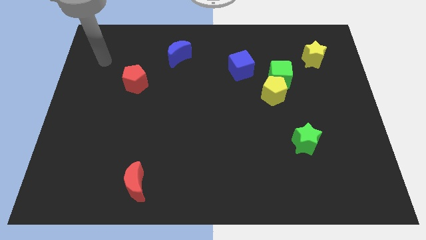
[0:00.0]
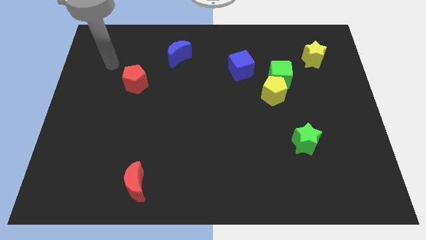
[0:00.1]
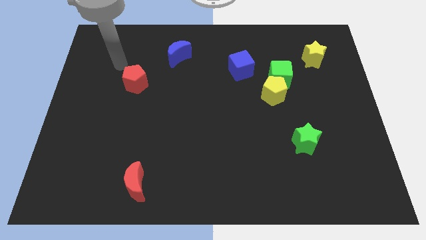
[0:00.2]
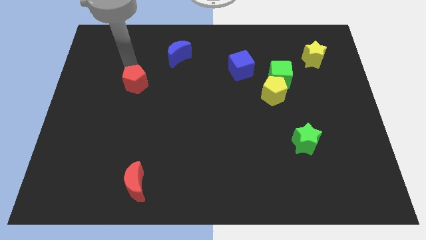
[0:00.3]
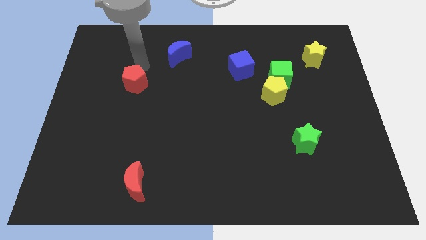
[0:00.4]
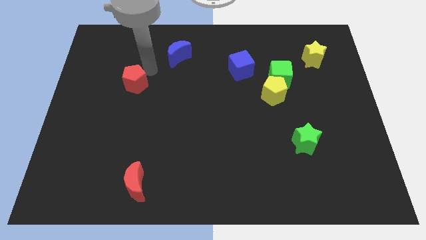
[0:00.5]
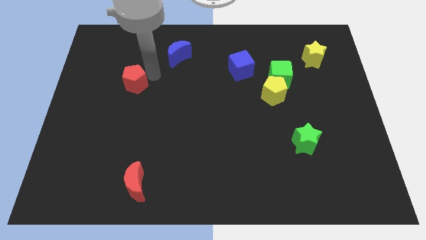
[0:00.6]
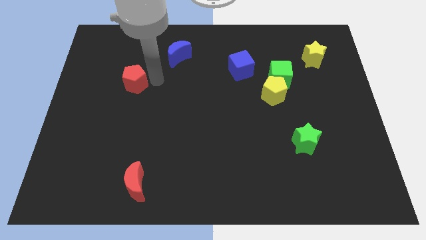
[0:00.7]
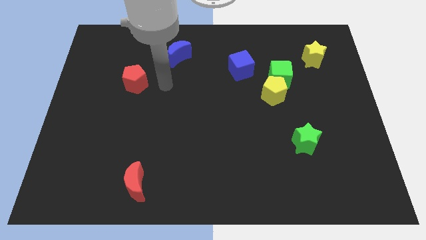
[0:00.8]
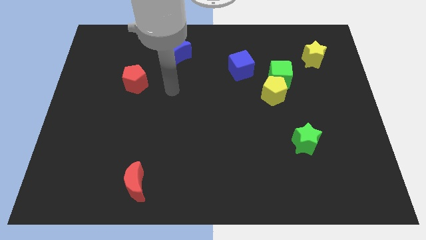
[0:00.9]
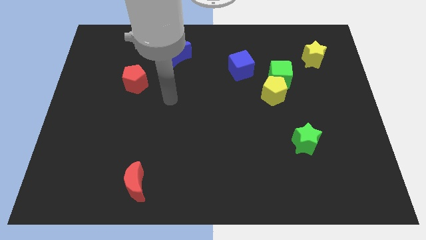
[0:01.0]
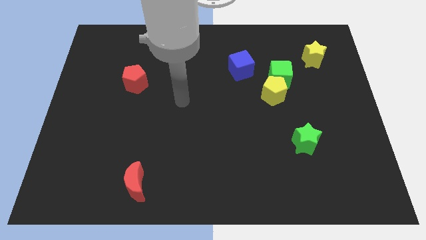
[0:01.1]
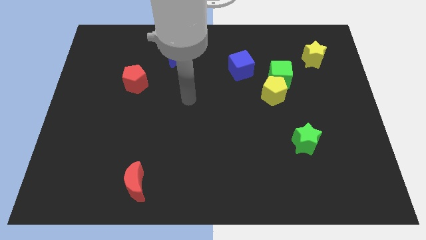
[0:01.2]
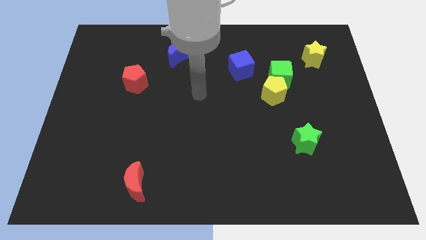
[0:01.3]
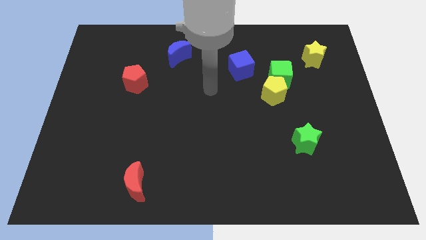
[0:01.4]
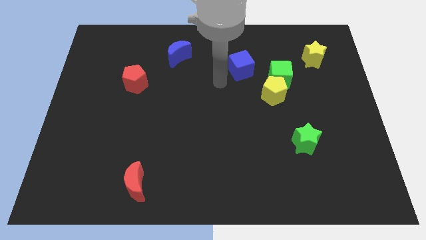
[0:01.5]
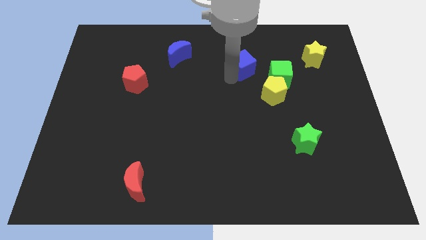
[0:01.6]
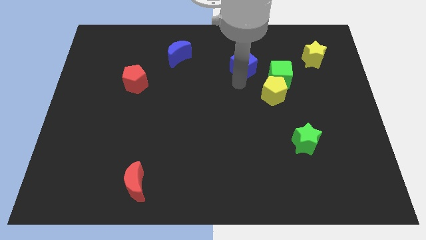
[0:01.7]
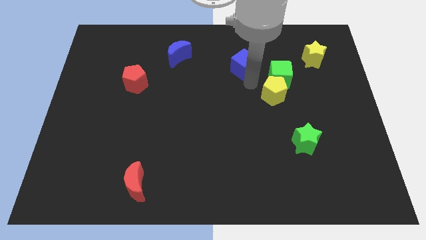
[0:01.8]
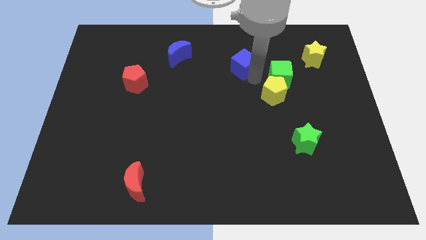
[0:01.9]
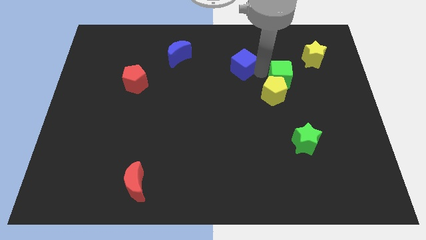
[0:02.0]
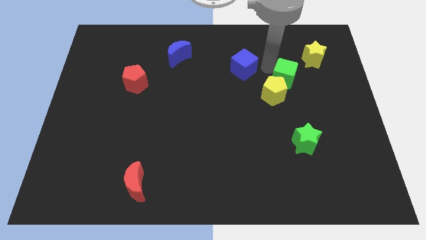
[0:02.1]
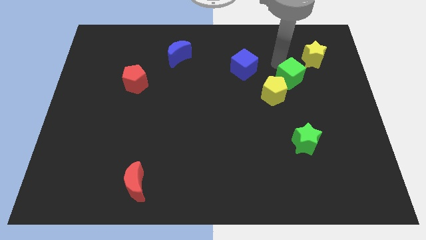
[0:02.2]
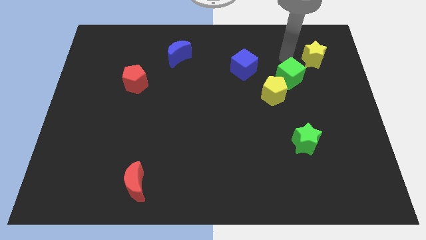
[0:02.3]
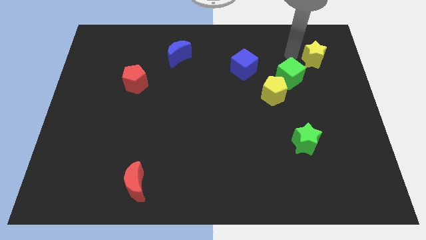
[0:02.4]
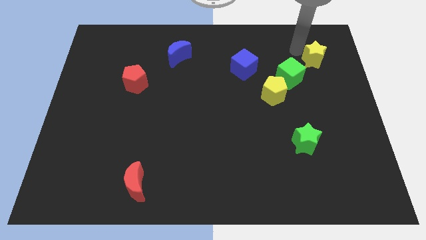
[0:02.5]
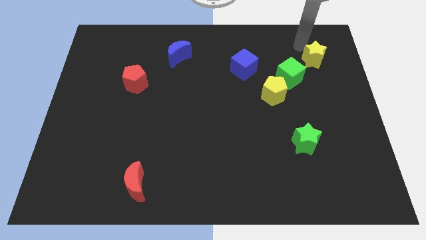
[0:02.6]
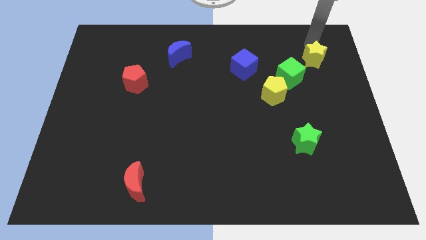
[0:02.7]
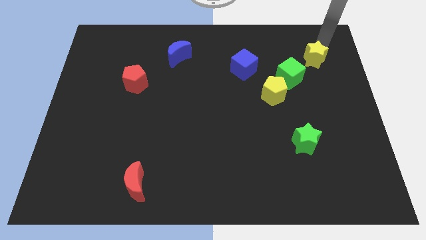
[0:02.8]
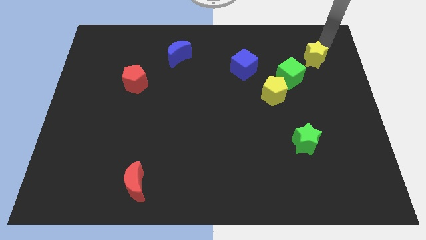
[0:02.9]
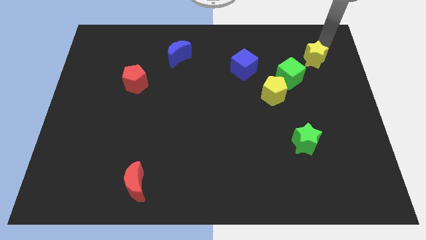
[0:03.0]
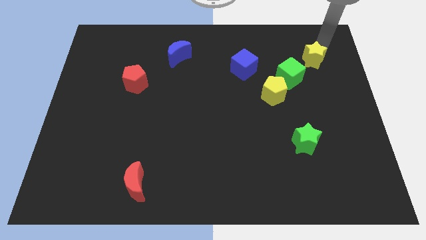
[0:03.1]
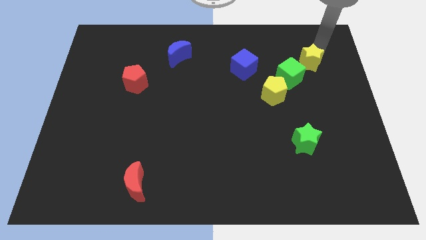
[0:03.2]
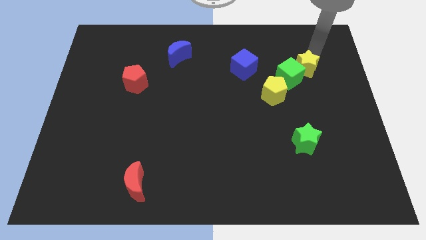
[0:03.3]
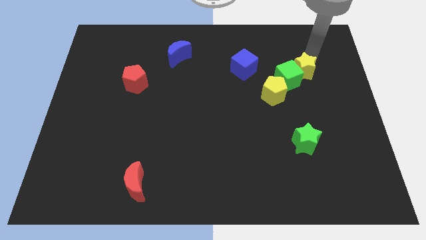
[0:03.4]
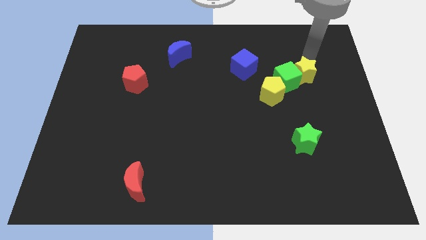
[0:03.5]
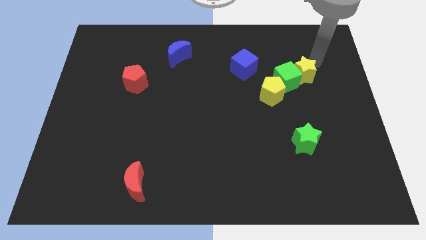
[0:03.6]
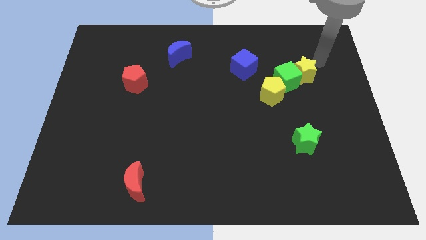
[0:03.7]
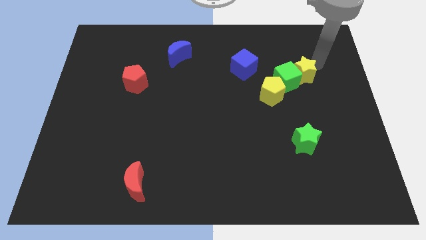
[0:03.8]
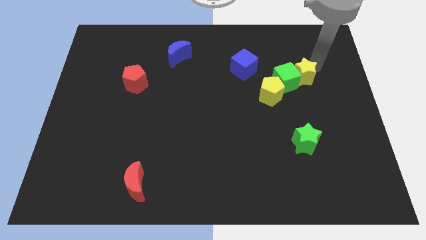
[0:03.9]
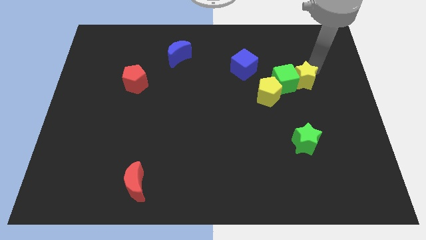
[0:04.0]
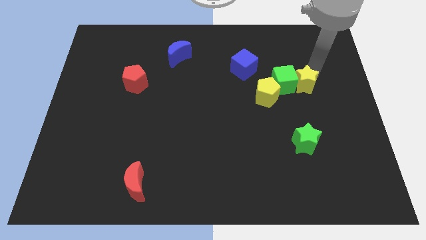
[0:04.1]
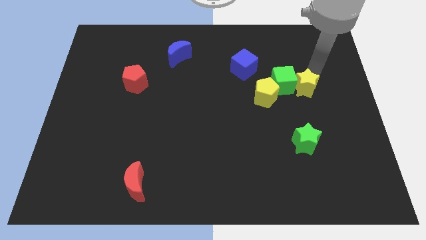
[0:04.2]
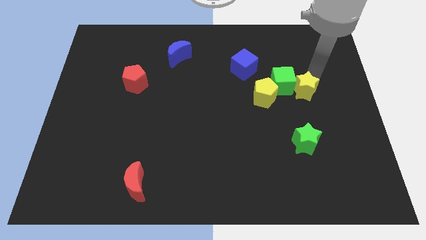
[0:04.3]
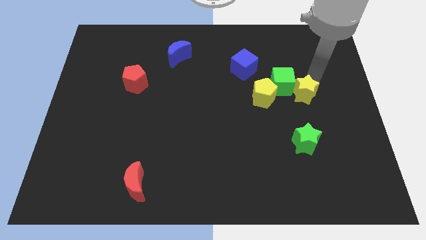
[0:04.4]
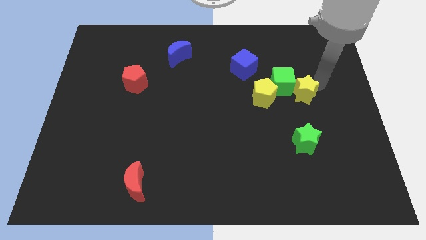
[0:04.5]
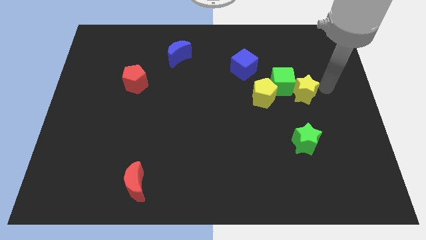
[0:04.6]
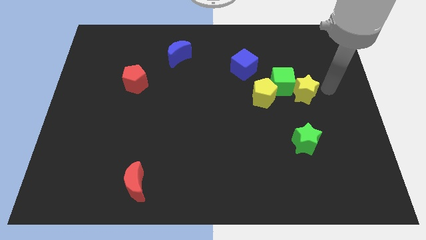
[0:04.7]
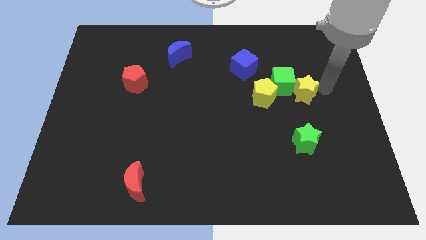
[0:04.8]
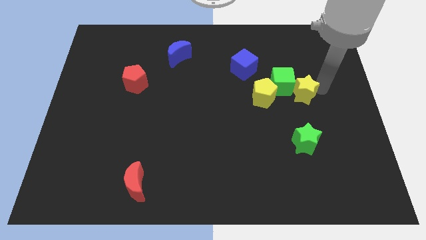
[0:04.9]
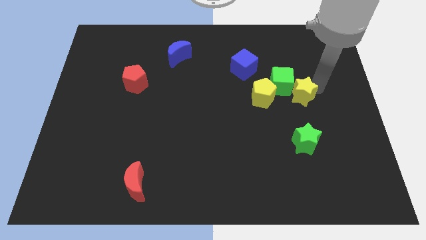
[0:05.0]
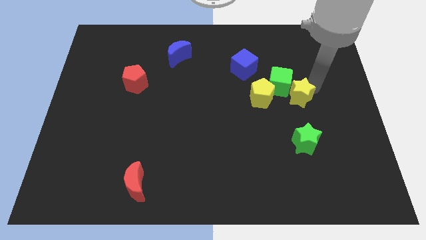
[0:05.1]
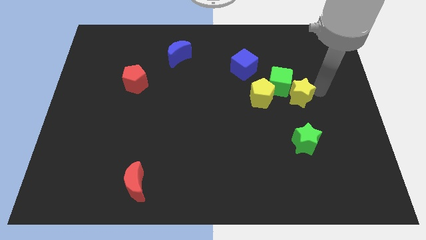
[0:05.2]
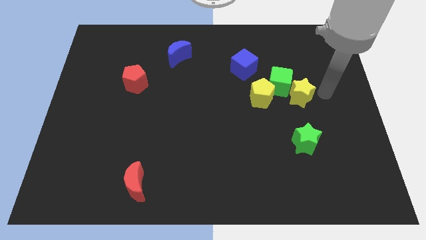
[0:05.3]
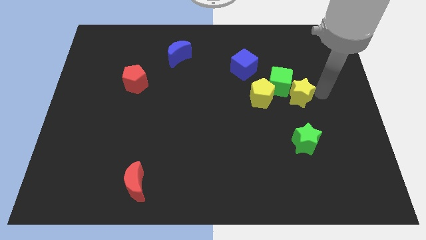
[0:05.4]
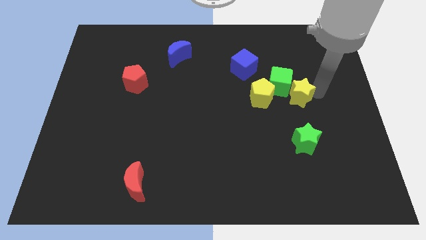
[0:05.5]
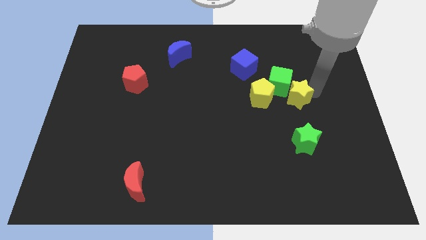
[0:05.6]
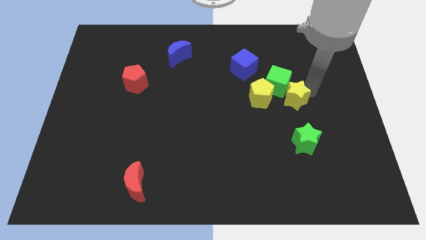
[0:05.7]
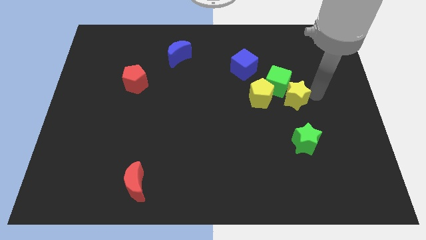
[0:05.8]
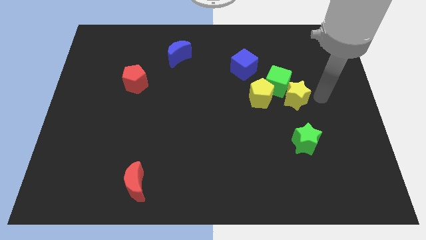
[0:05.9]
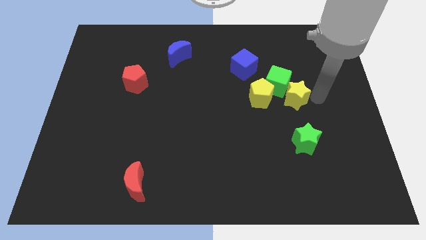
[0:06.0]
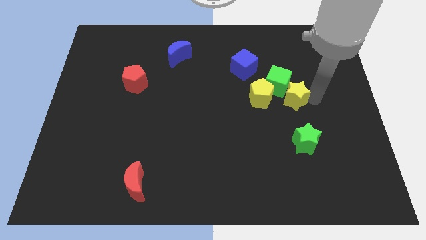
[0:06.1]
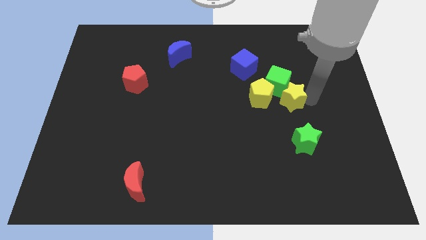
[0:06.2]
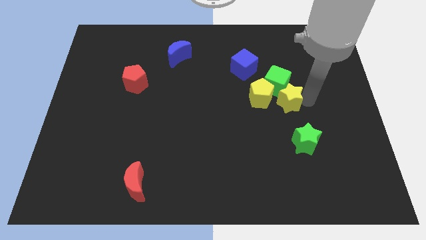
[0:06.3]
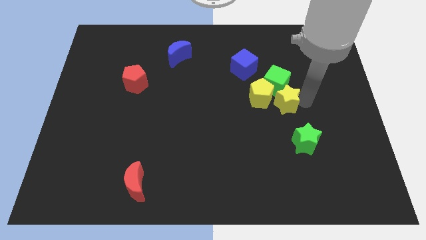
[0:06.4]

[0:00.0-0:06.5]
put the yellow star close to the yellow pentagon
